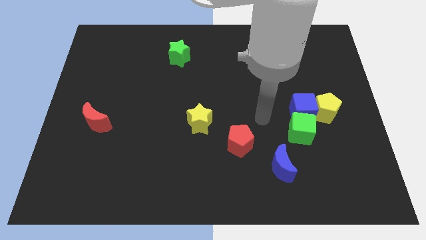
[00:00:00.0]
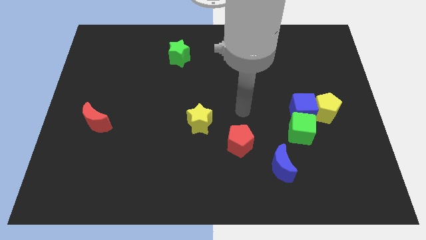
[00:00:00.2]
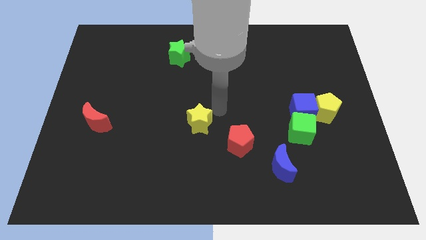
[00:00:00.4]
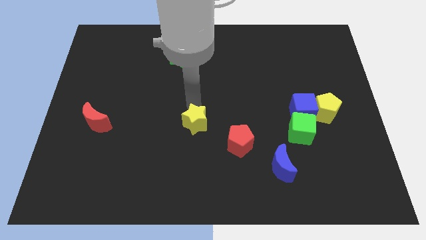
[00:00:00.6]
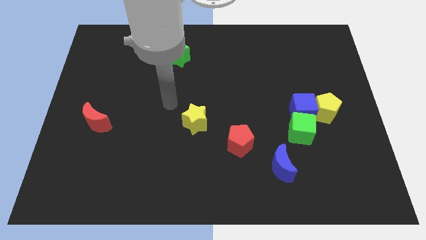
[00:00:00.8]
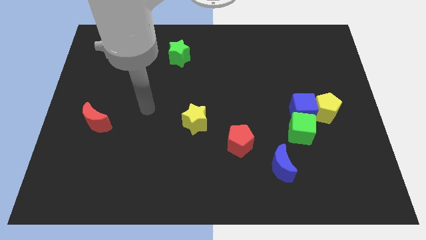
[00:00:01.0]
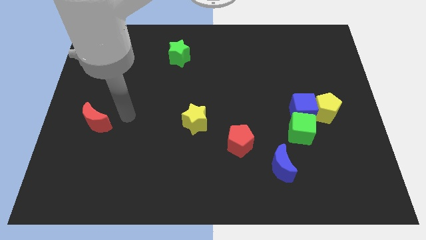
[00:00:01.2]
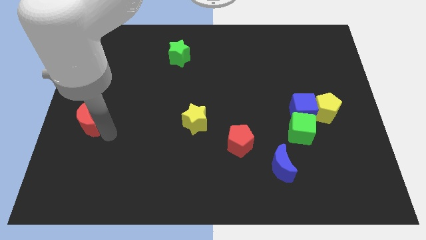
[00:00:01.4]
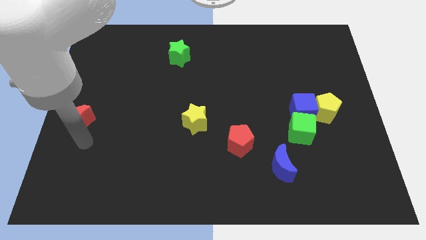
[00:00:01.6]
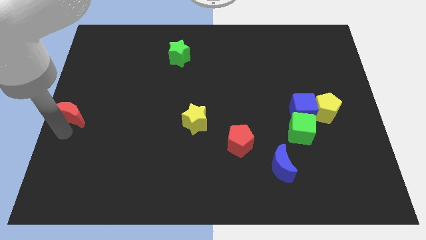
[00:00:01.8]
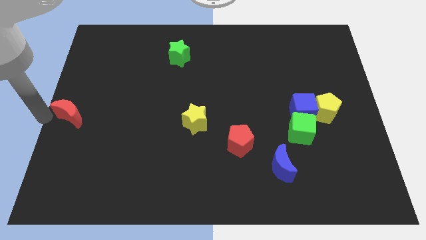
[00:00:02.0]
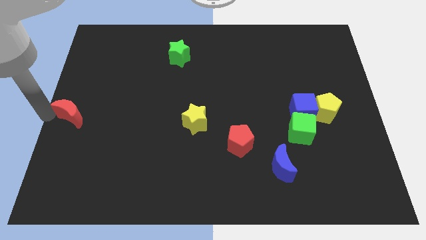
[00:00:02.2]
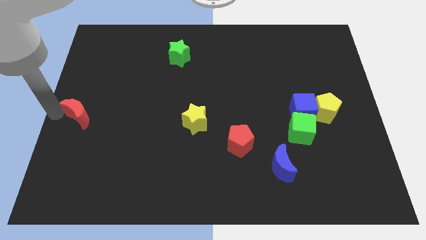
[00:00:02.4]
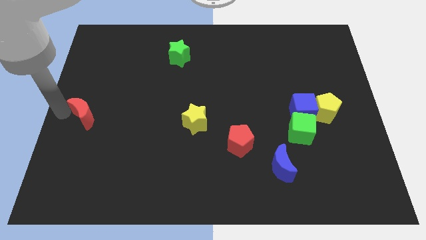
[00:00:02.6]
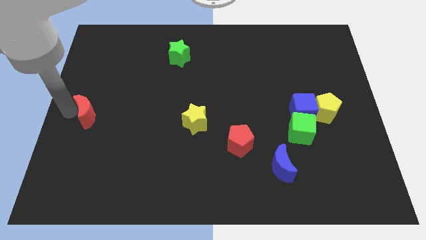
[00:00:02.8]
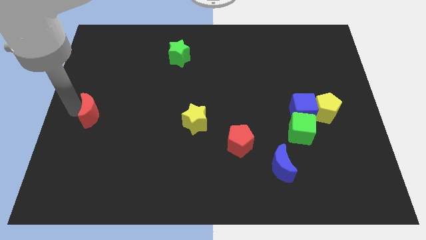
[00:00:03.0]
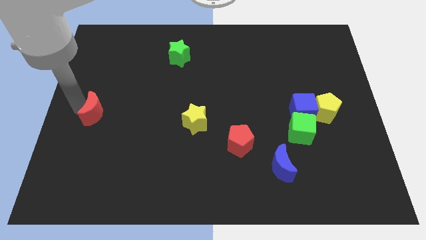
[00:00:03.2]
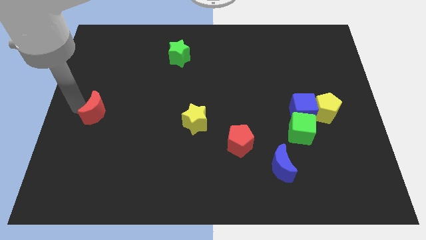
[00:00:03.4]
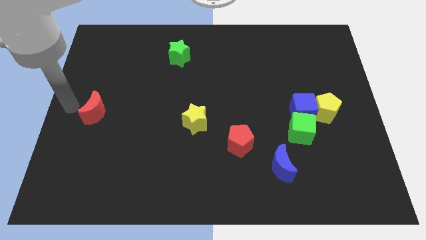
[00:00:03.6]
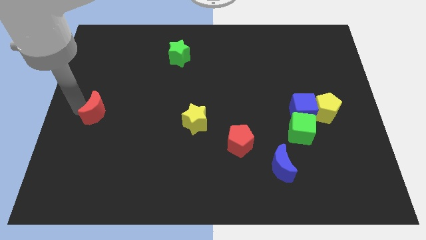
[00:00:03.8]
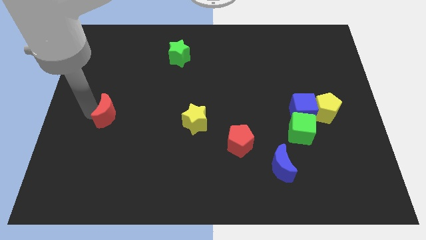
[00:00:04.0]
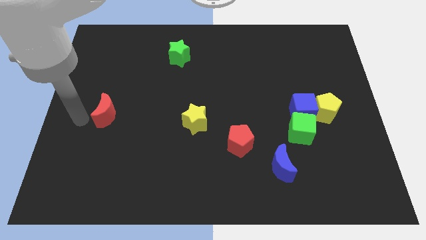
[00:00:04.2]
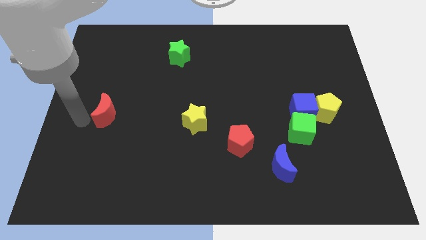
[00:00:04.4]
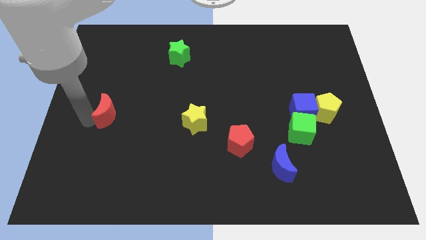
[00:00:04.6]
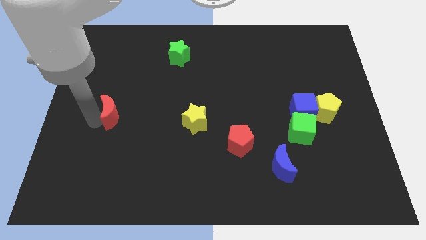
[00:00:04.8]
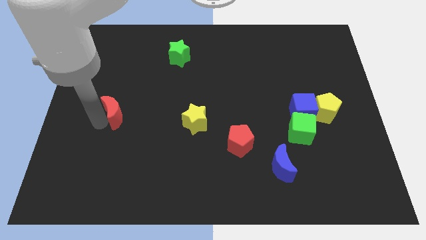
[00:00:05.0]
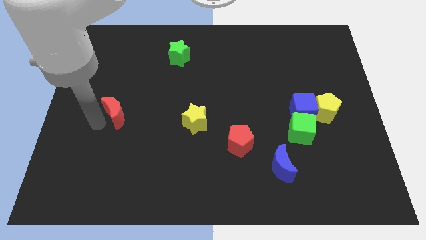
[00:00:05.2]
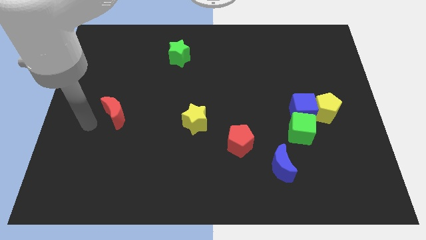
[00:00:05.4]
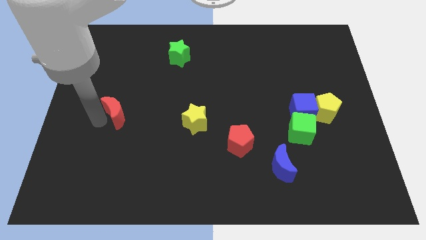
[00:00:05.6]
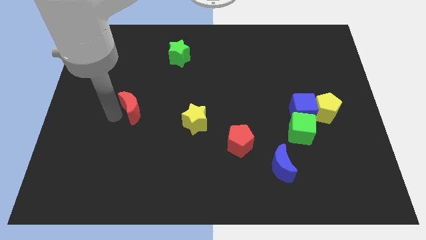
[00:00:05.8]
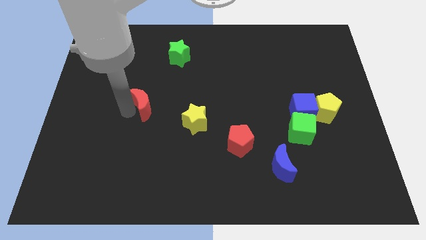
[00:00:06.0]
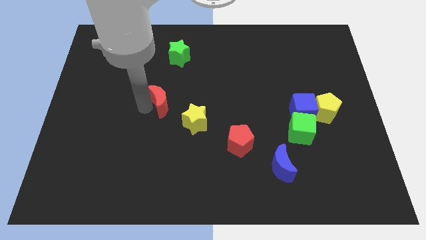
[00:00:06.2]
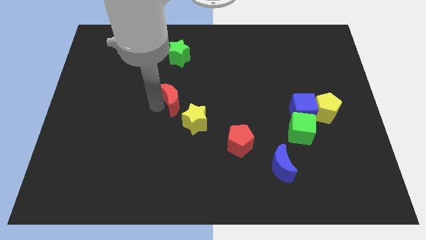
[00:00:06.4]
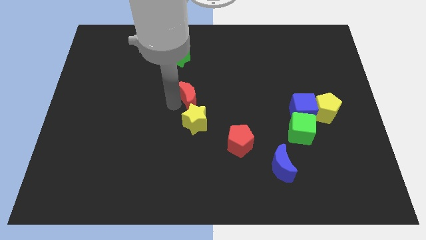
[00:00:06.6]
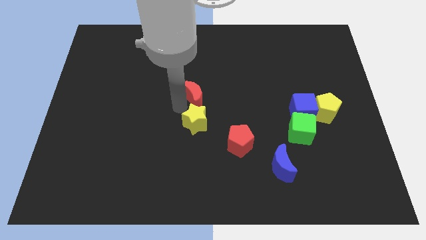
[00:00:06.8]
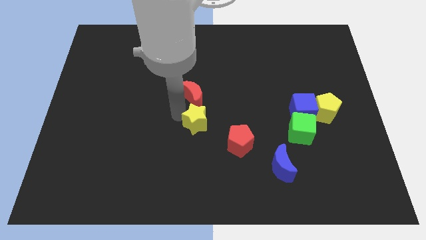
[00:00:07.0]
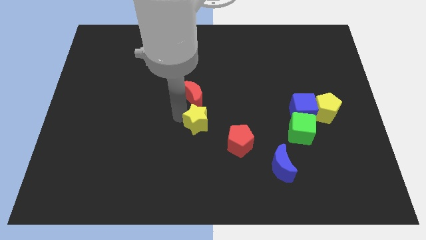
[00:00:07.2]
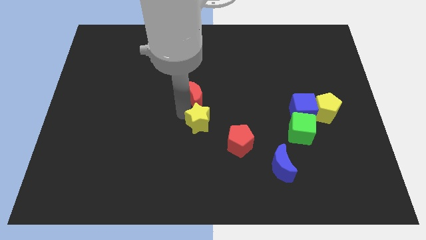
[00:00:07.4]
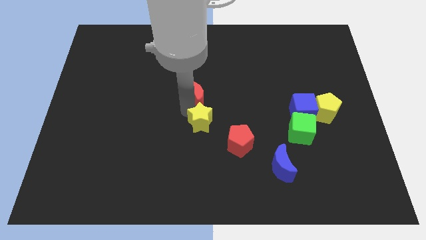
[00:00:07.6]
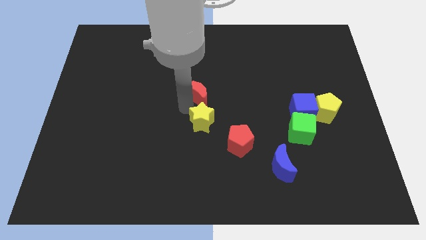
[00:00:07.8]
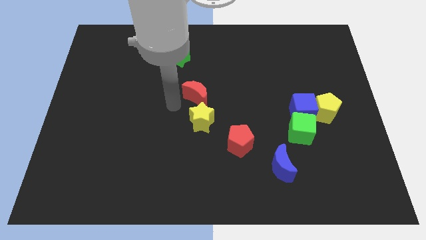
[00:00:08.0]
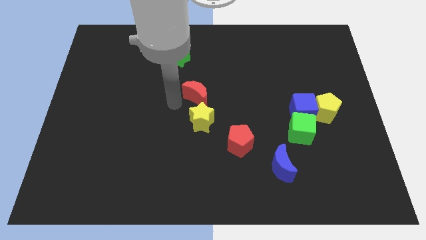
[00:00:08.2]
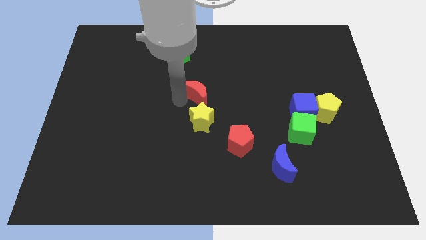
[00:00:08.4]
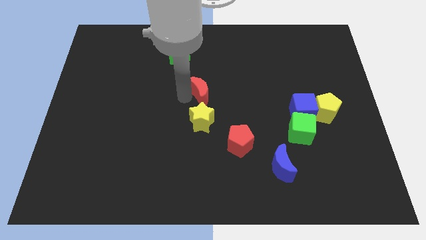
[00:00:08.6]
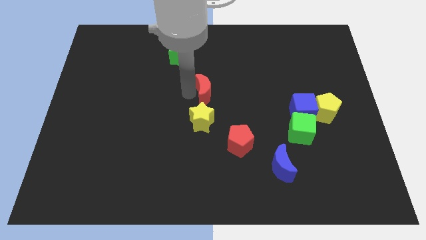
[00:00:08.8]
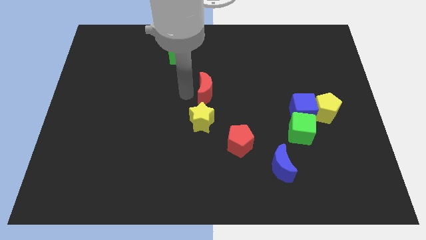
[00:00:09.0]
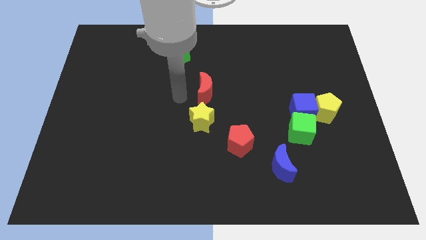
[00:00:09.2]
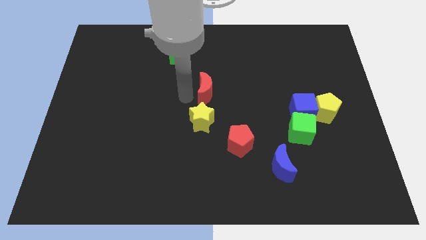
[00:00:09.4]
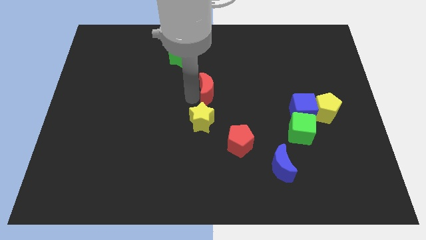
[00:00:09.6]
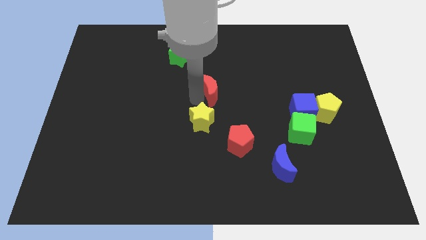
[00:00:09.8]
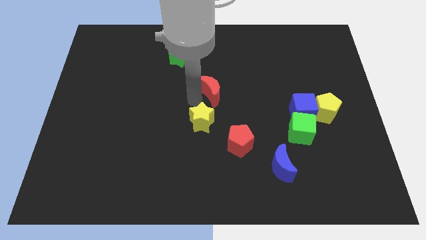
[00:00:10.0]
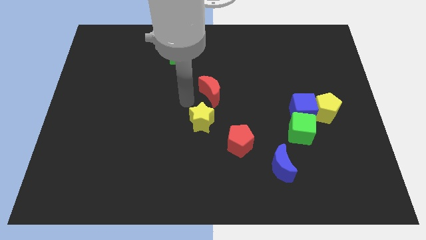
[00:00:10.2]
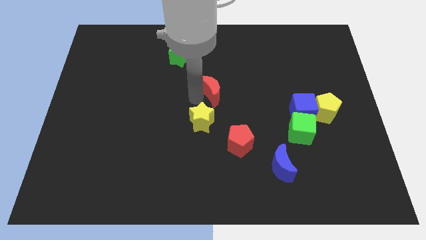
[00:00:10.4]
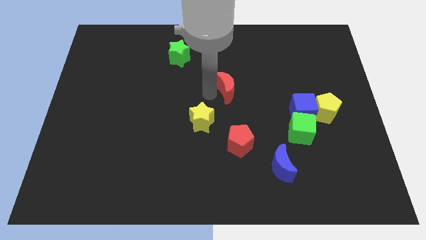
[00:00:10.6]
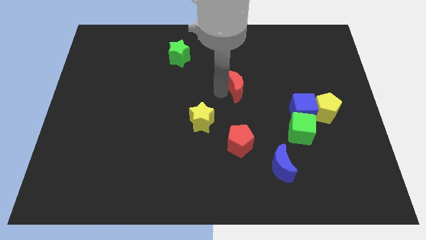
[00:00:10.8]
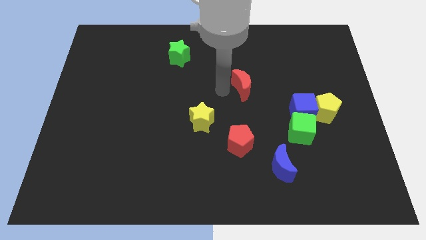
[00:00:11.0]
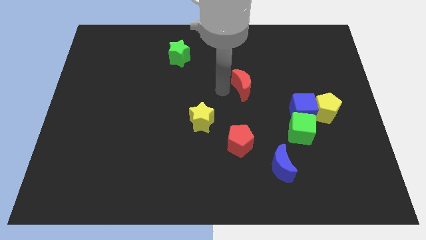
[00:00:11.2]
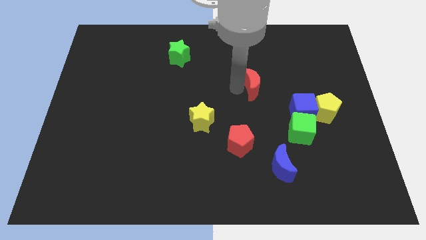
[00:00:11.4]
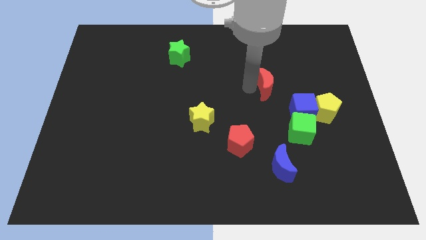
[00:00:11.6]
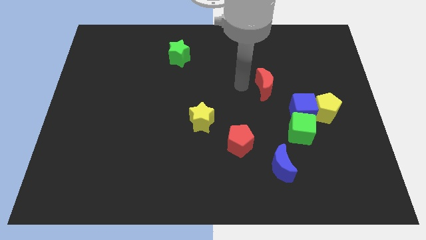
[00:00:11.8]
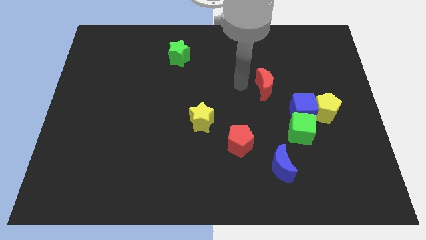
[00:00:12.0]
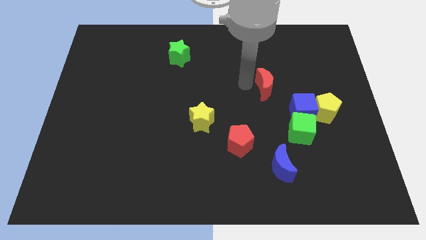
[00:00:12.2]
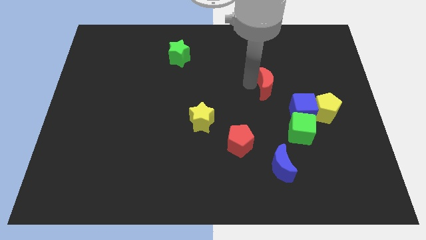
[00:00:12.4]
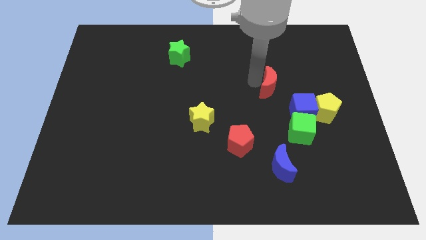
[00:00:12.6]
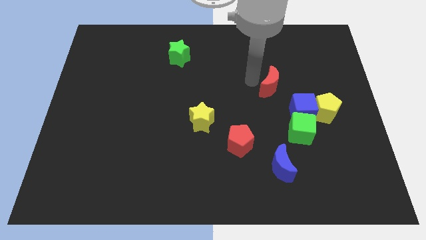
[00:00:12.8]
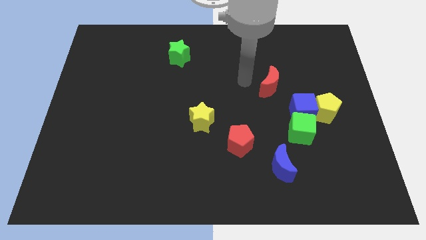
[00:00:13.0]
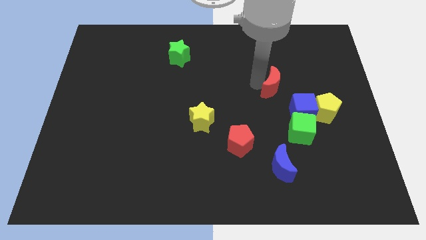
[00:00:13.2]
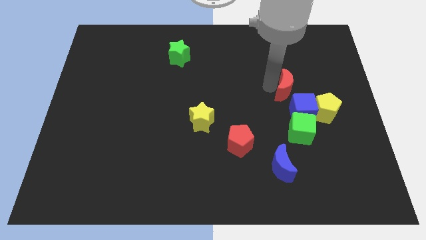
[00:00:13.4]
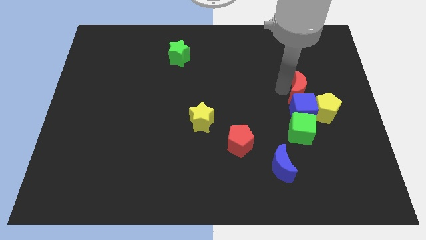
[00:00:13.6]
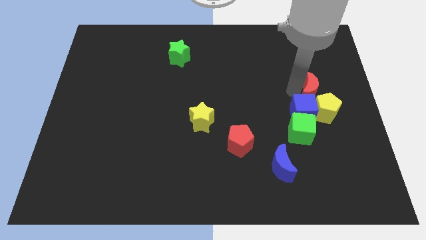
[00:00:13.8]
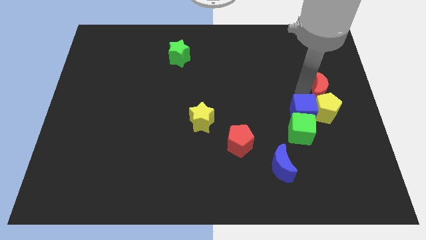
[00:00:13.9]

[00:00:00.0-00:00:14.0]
put the red moon to the center right
